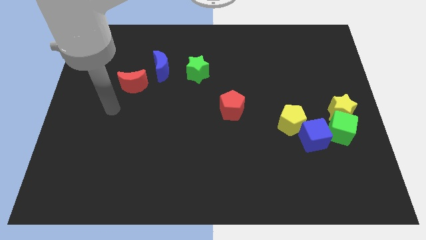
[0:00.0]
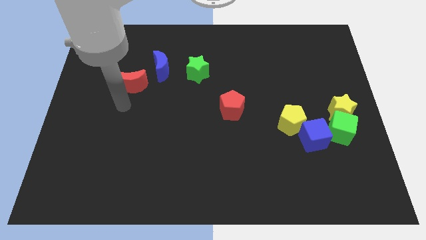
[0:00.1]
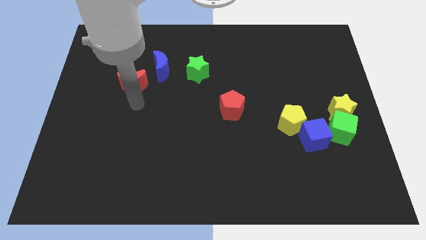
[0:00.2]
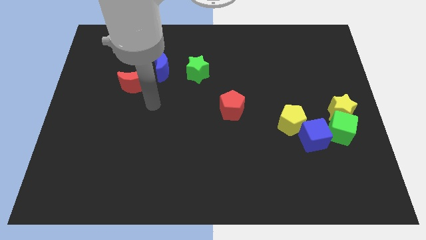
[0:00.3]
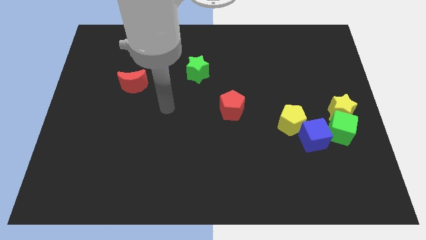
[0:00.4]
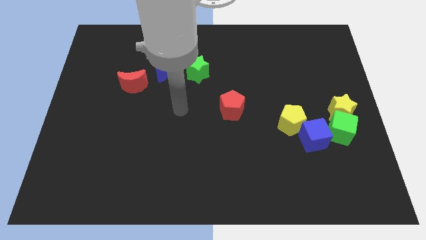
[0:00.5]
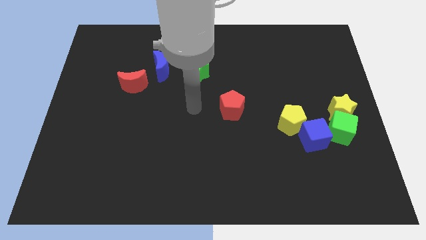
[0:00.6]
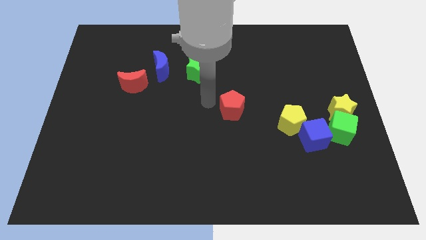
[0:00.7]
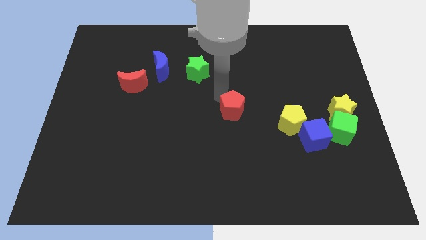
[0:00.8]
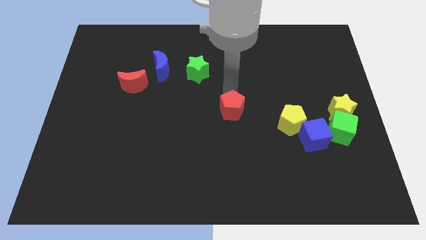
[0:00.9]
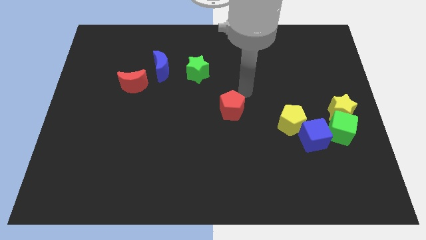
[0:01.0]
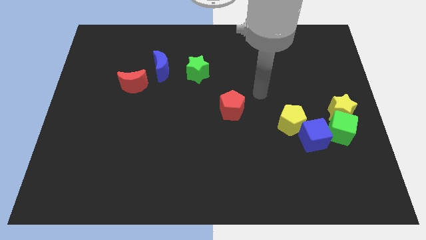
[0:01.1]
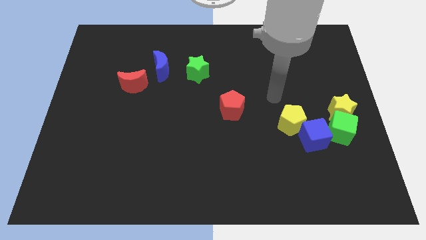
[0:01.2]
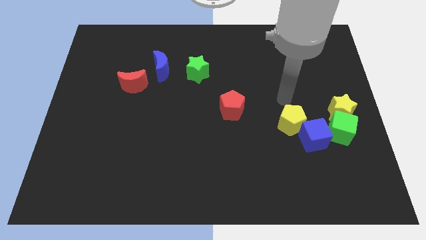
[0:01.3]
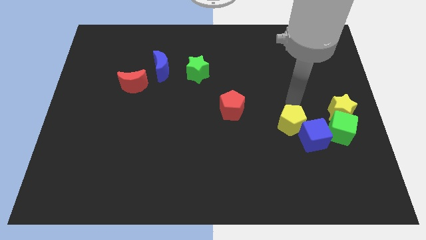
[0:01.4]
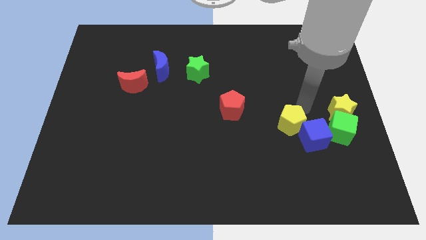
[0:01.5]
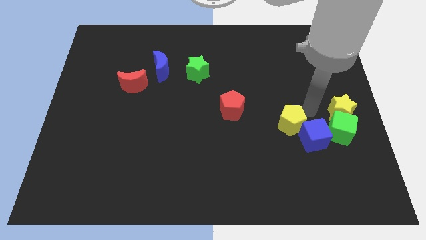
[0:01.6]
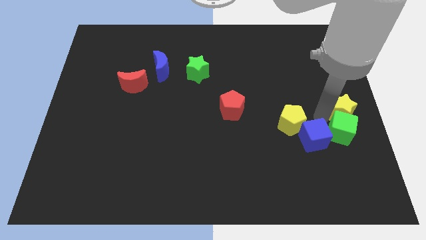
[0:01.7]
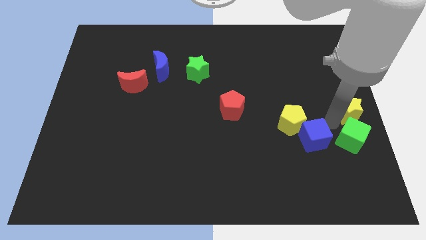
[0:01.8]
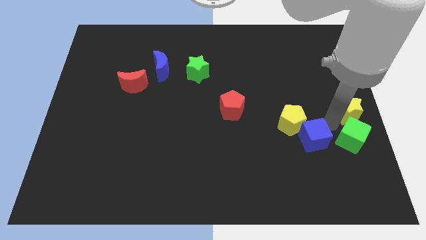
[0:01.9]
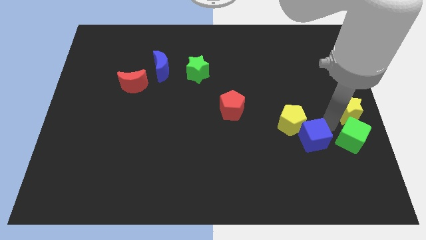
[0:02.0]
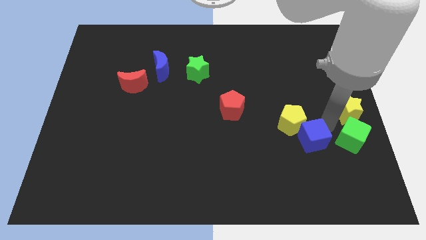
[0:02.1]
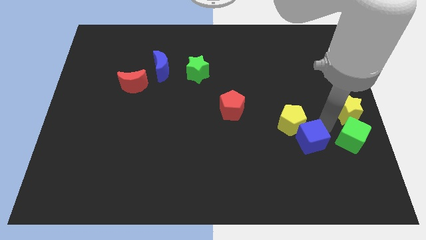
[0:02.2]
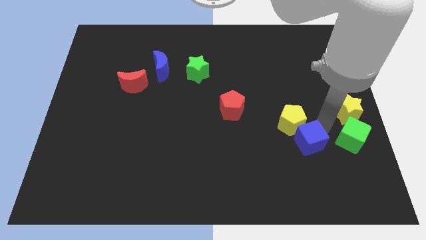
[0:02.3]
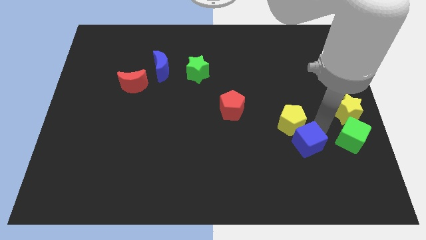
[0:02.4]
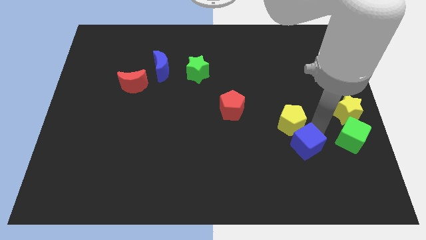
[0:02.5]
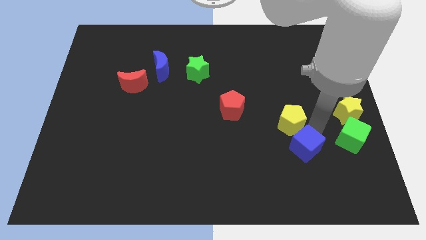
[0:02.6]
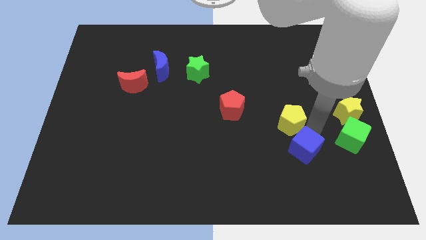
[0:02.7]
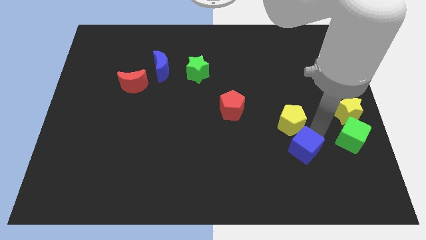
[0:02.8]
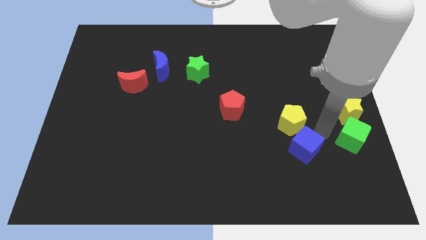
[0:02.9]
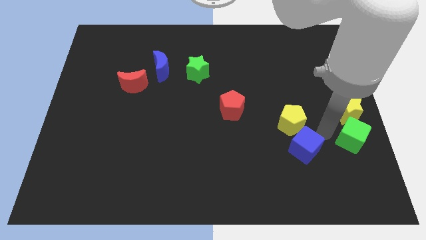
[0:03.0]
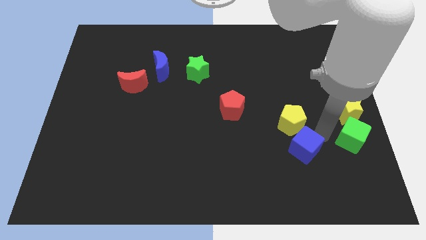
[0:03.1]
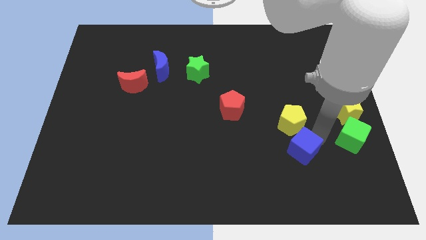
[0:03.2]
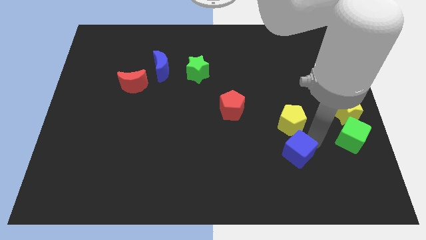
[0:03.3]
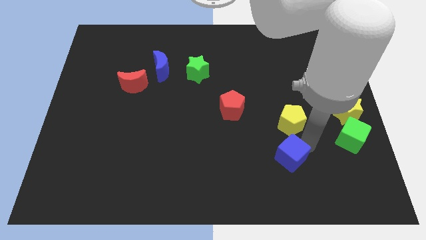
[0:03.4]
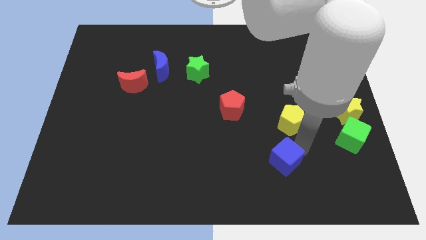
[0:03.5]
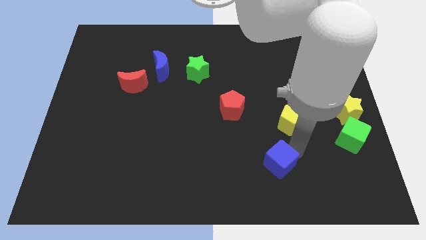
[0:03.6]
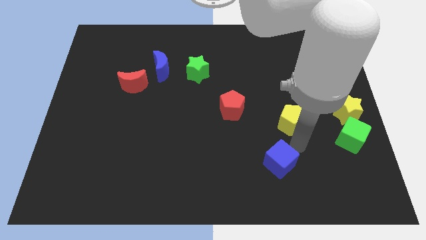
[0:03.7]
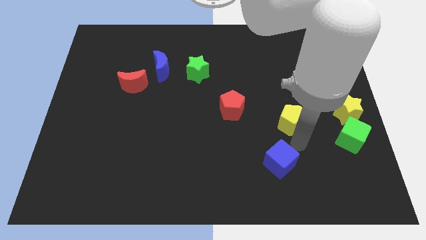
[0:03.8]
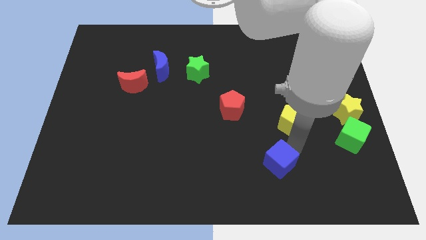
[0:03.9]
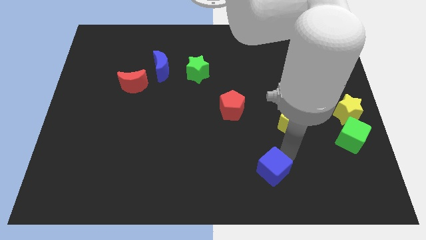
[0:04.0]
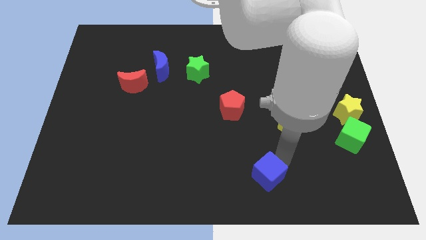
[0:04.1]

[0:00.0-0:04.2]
push the blue cube to the bottom side

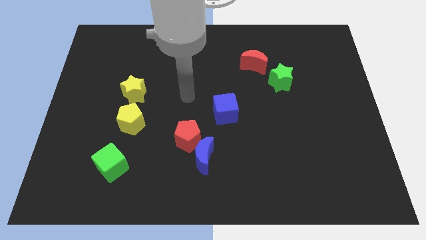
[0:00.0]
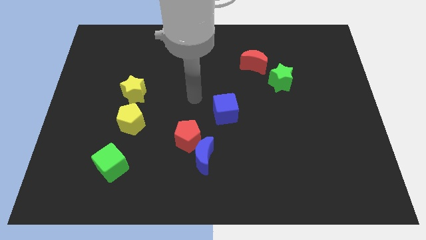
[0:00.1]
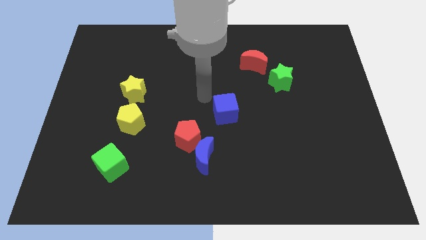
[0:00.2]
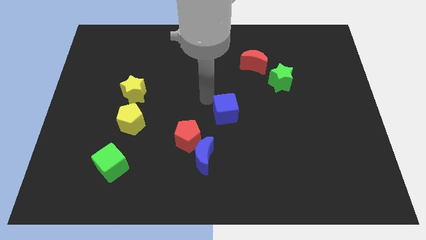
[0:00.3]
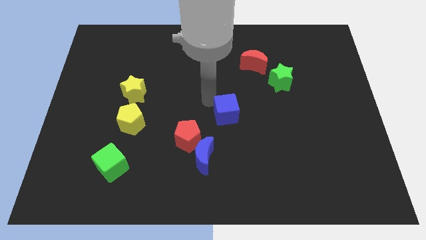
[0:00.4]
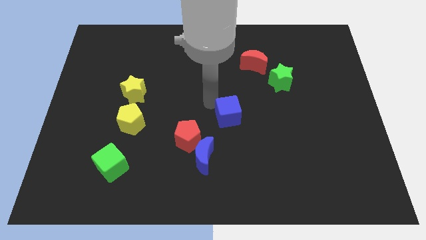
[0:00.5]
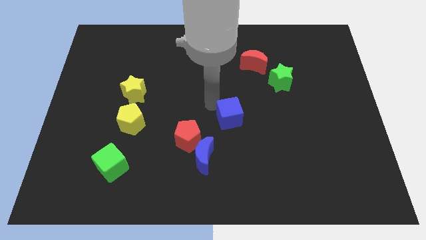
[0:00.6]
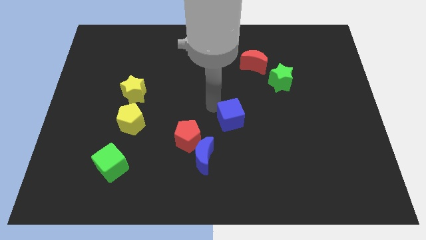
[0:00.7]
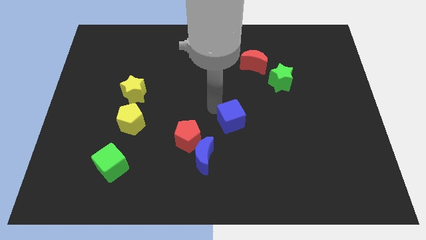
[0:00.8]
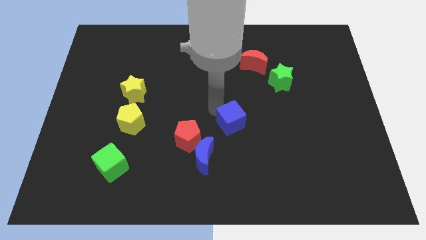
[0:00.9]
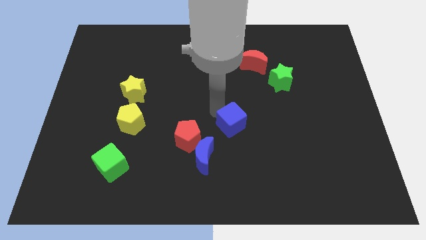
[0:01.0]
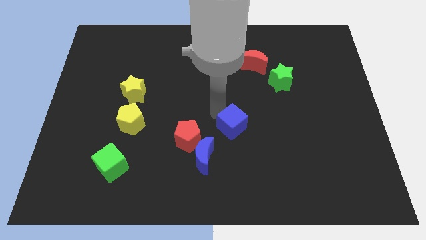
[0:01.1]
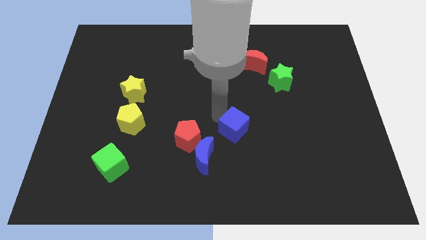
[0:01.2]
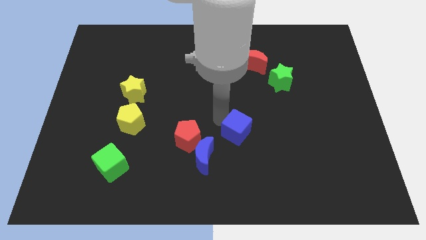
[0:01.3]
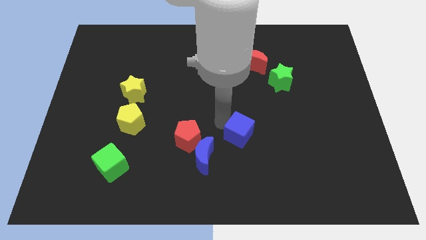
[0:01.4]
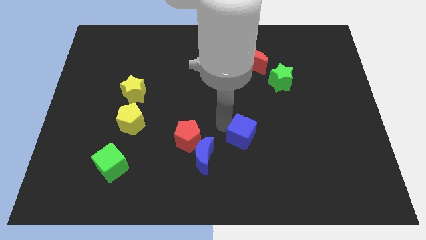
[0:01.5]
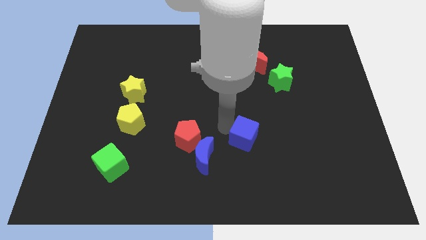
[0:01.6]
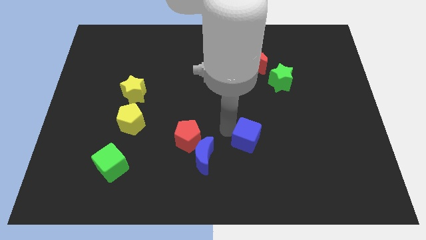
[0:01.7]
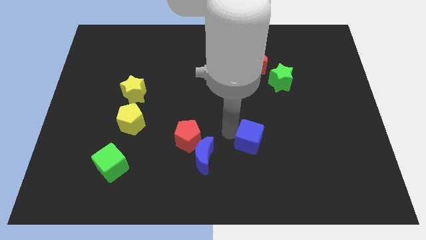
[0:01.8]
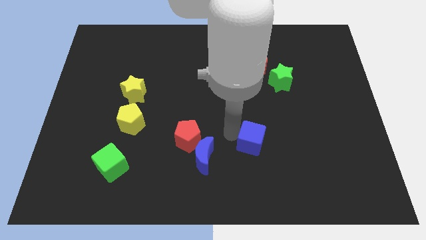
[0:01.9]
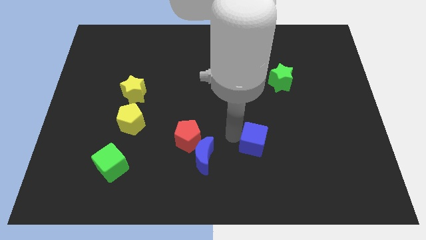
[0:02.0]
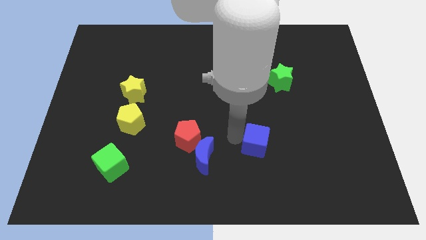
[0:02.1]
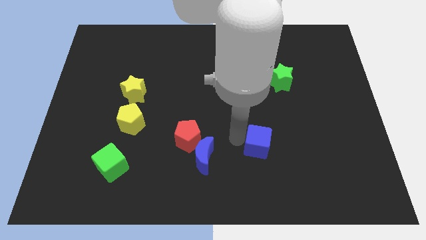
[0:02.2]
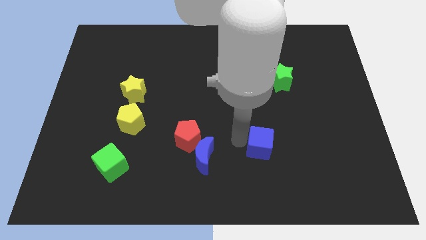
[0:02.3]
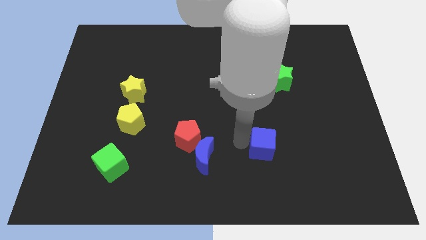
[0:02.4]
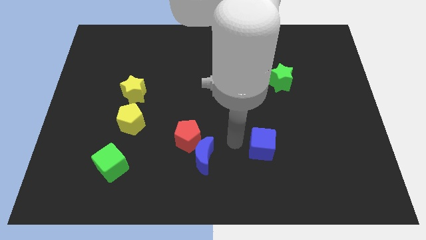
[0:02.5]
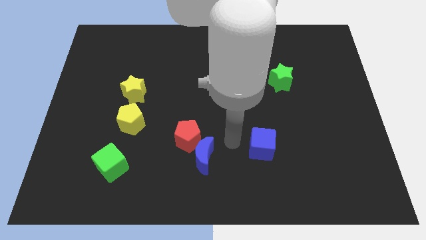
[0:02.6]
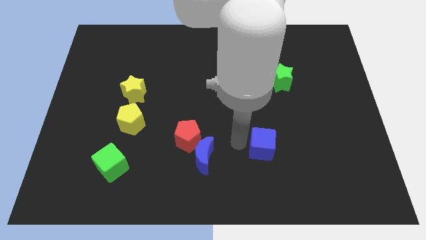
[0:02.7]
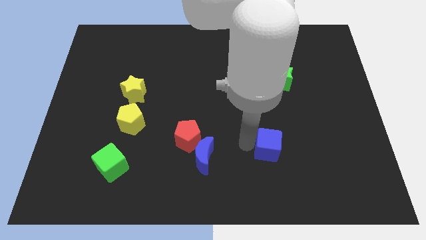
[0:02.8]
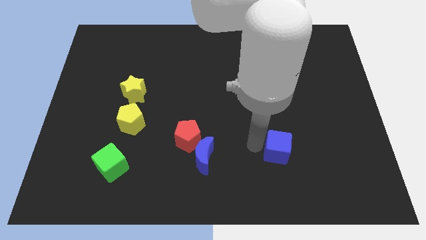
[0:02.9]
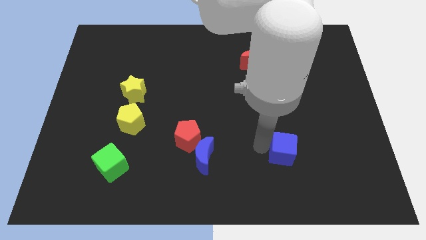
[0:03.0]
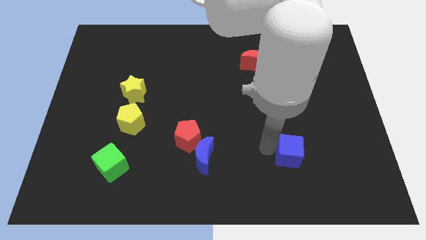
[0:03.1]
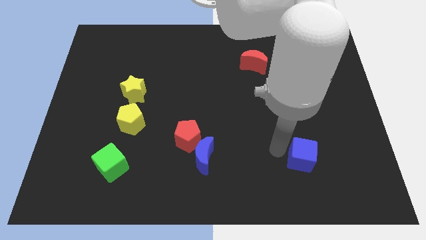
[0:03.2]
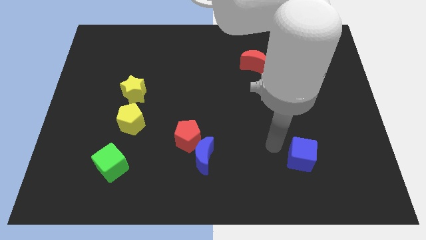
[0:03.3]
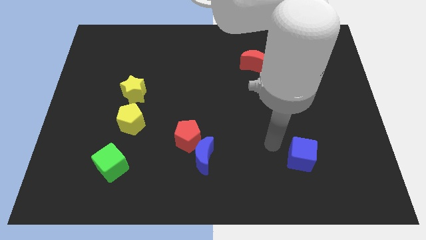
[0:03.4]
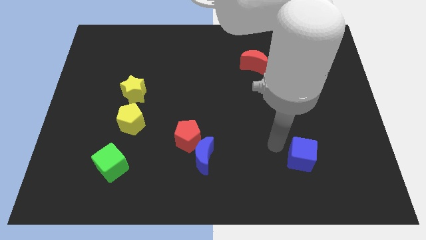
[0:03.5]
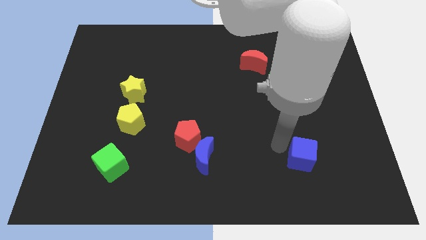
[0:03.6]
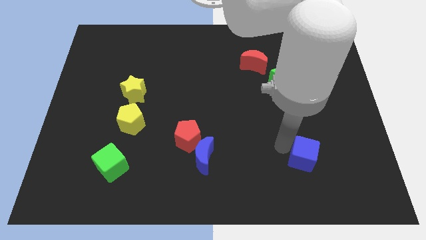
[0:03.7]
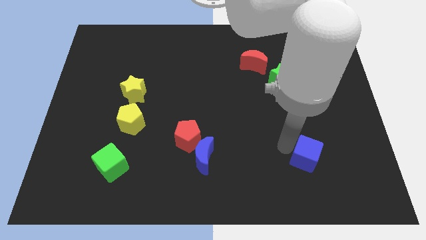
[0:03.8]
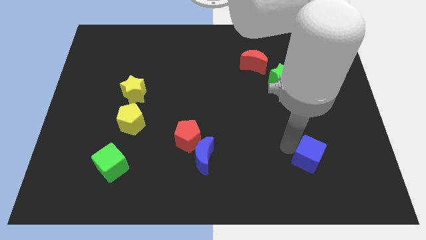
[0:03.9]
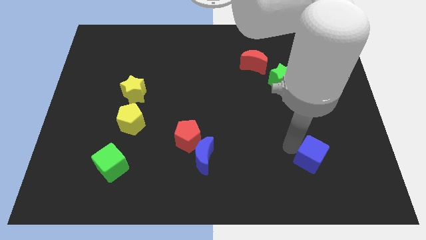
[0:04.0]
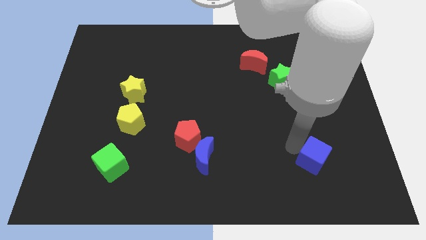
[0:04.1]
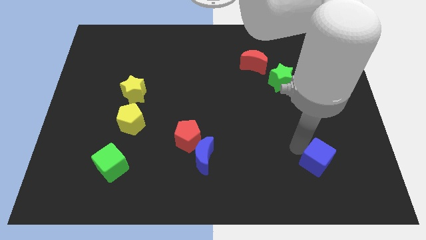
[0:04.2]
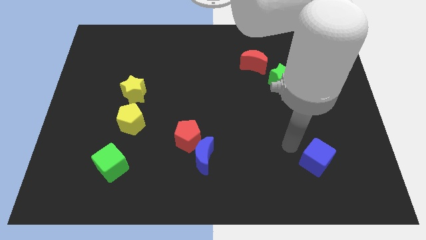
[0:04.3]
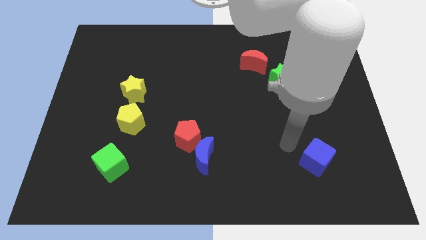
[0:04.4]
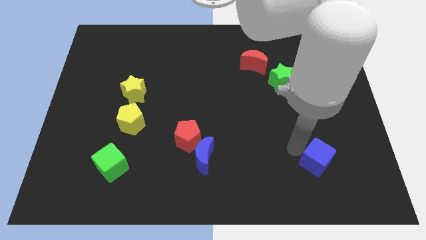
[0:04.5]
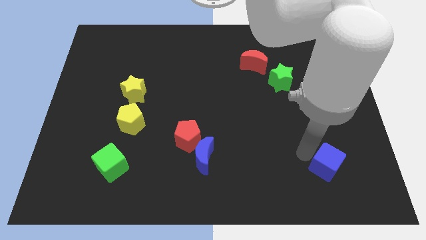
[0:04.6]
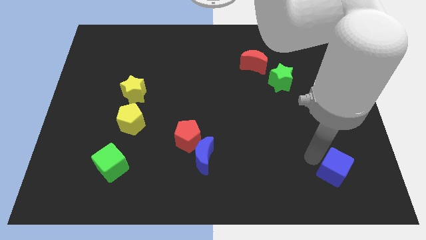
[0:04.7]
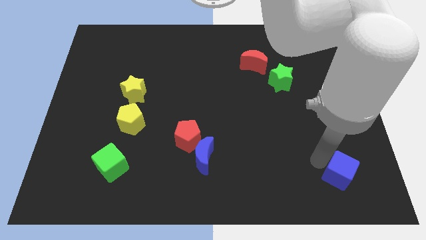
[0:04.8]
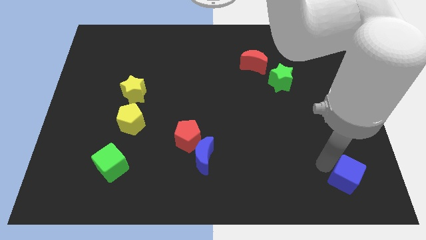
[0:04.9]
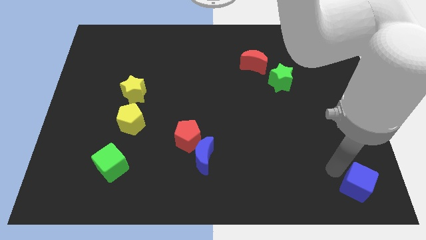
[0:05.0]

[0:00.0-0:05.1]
move the blue cube to the bottom right
